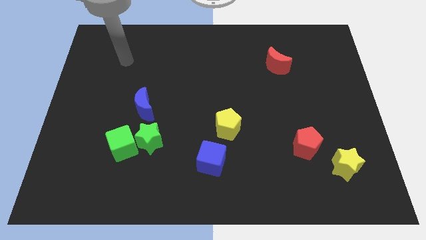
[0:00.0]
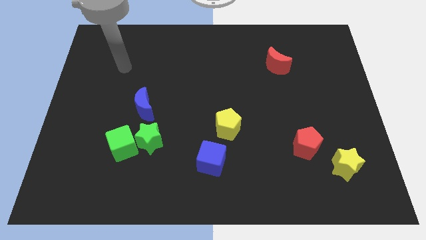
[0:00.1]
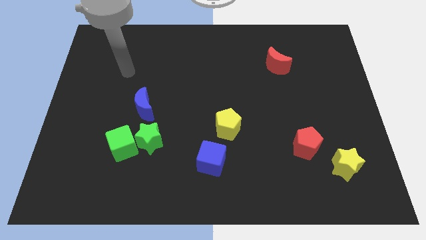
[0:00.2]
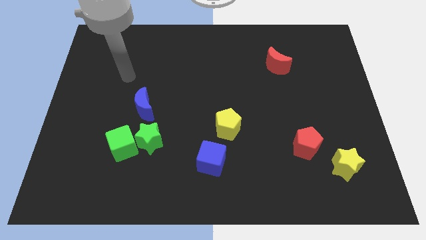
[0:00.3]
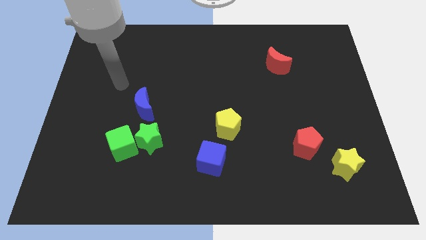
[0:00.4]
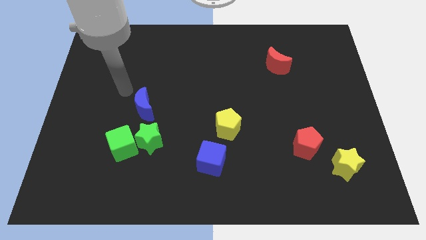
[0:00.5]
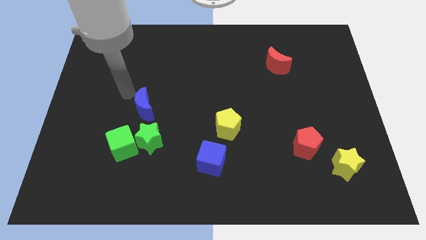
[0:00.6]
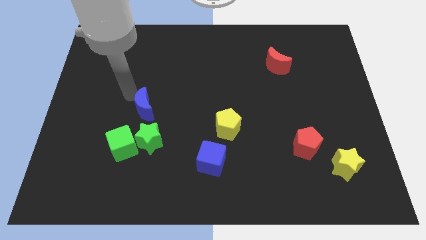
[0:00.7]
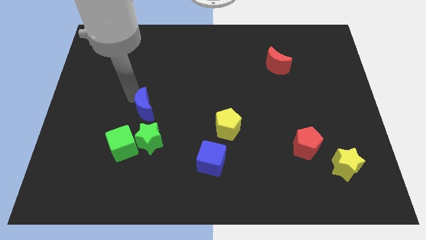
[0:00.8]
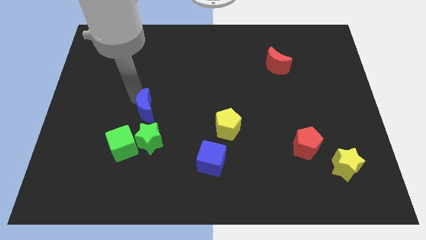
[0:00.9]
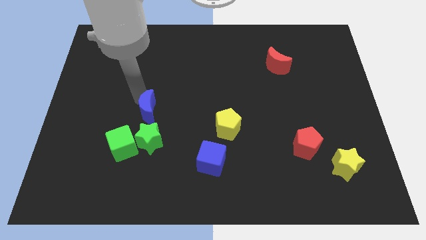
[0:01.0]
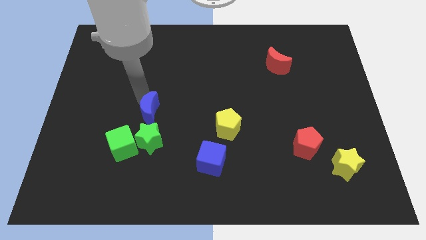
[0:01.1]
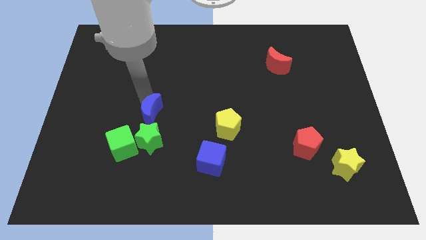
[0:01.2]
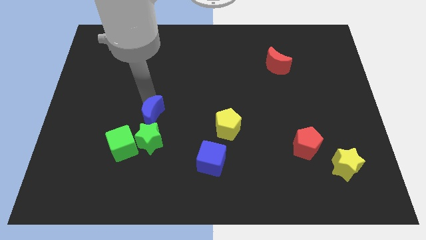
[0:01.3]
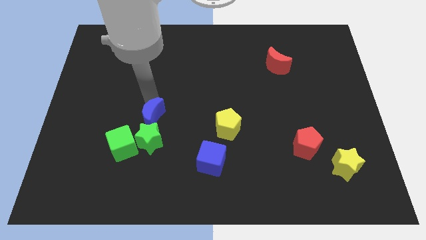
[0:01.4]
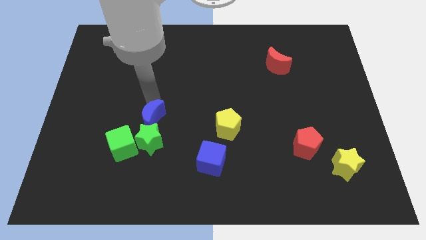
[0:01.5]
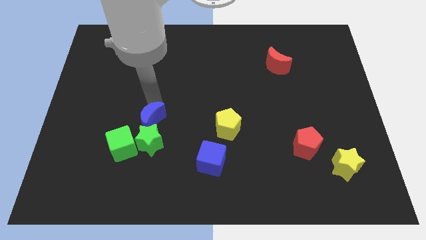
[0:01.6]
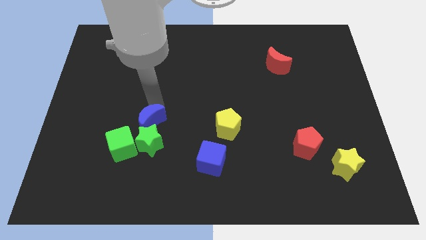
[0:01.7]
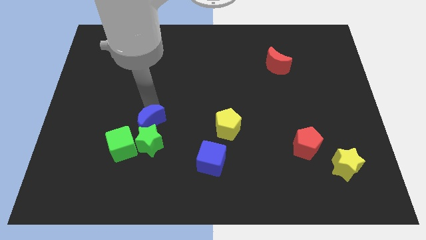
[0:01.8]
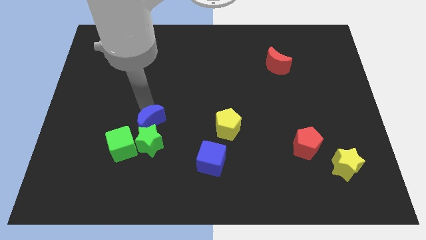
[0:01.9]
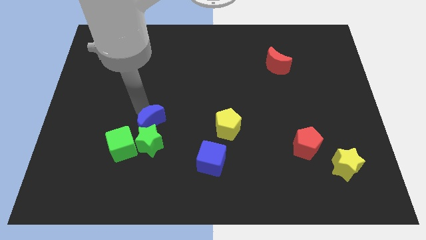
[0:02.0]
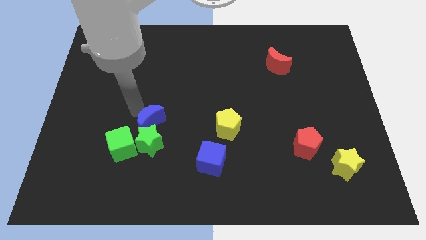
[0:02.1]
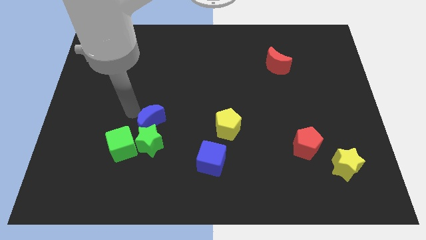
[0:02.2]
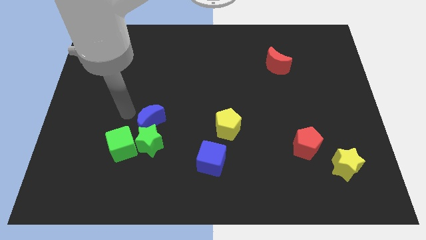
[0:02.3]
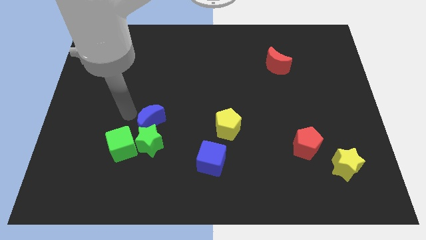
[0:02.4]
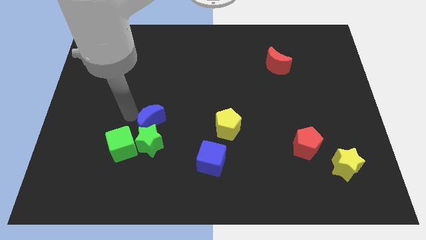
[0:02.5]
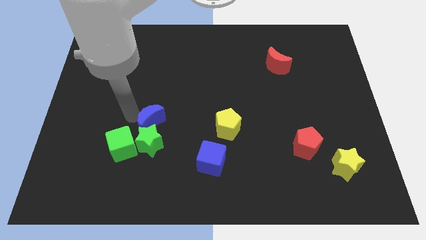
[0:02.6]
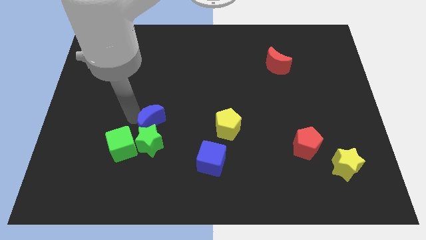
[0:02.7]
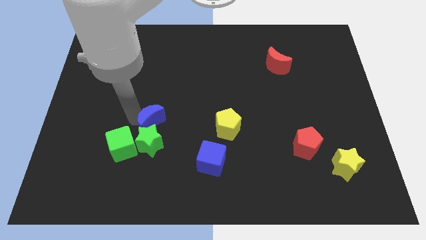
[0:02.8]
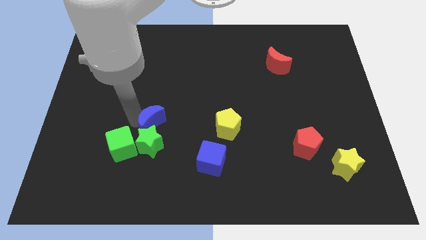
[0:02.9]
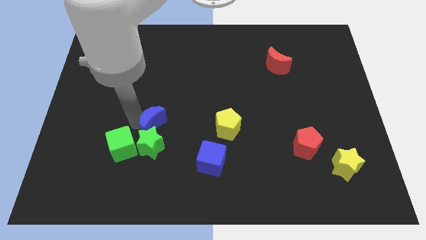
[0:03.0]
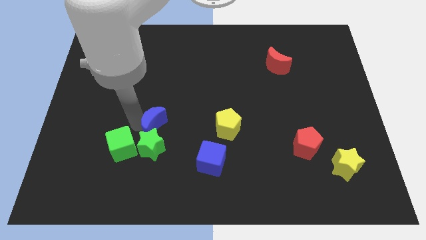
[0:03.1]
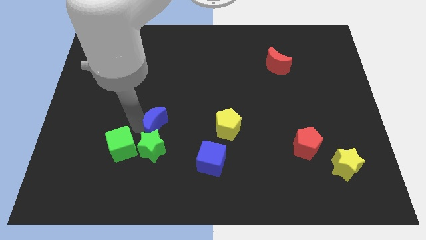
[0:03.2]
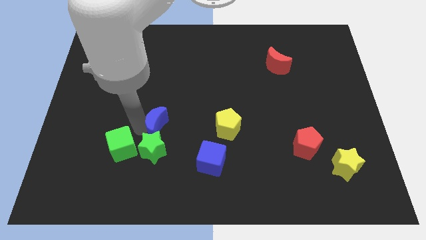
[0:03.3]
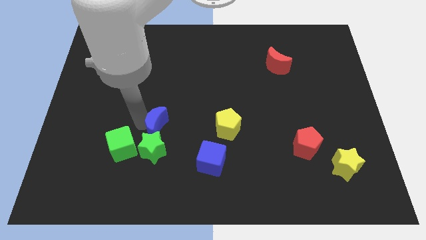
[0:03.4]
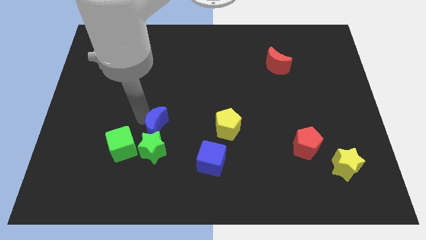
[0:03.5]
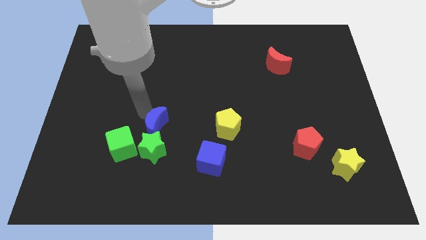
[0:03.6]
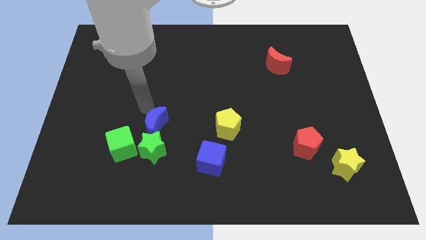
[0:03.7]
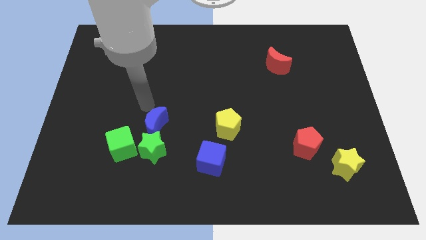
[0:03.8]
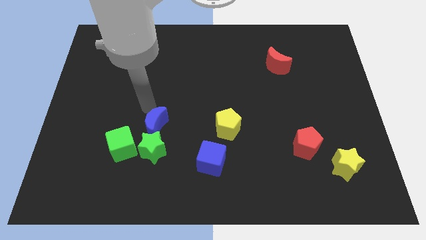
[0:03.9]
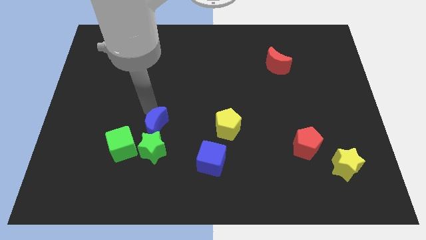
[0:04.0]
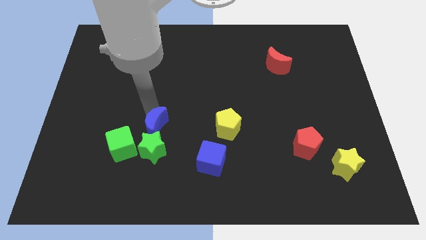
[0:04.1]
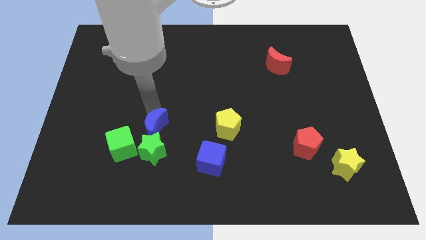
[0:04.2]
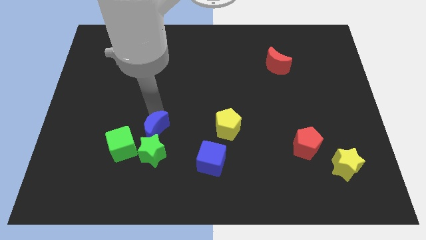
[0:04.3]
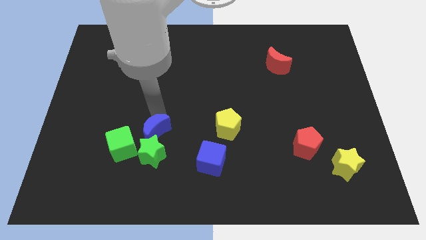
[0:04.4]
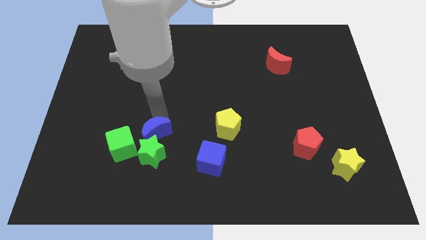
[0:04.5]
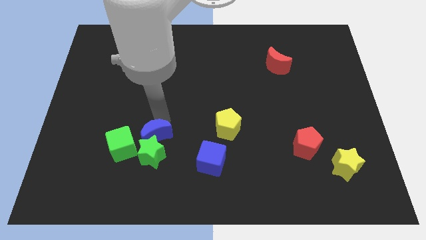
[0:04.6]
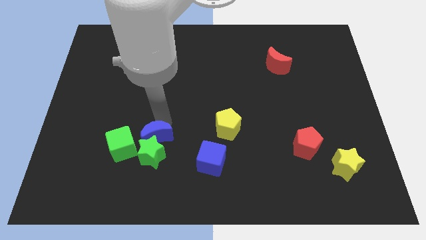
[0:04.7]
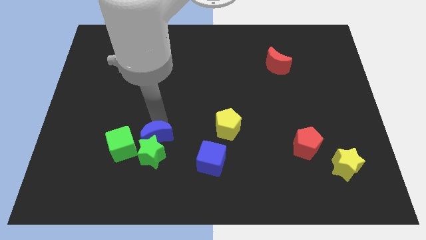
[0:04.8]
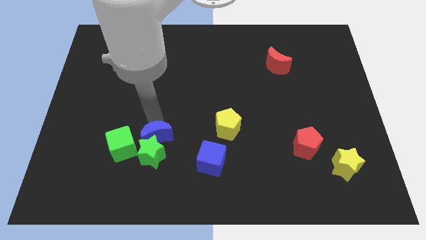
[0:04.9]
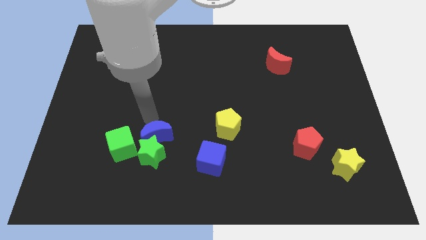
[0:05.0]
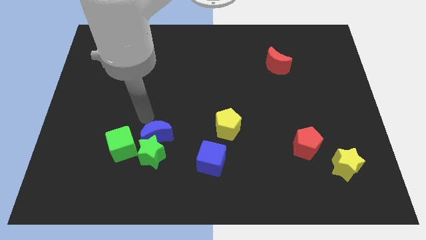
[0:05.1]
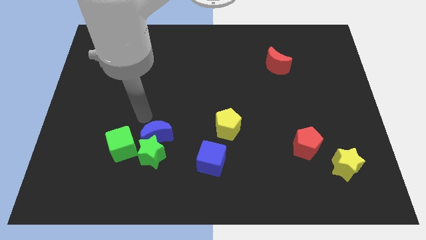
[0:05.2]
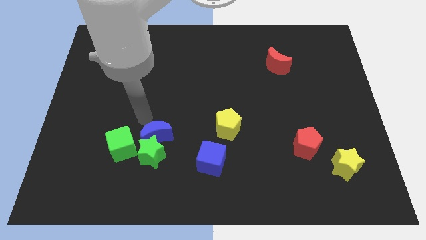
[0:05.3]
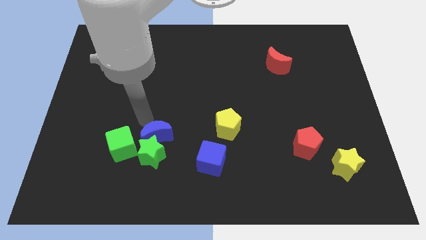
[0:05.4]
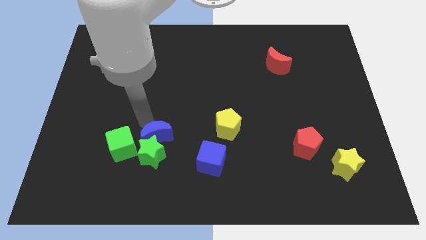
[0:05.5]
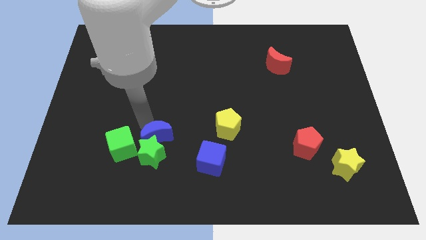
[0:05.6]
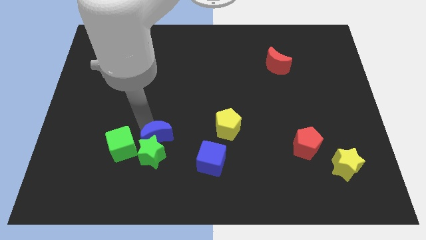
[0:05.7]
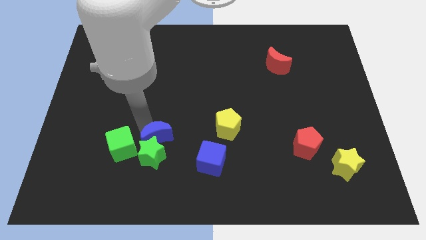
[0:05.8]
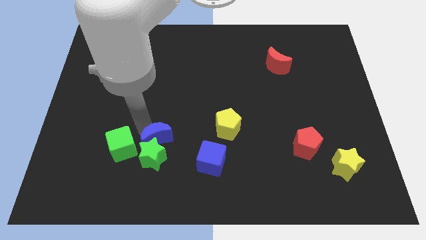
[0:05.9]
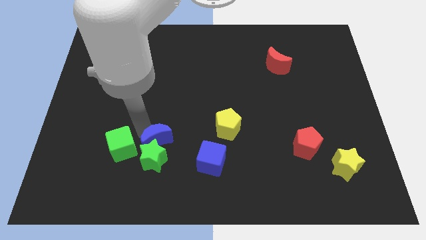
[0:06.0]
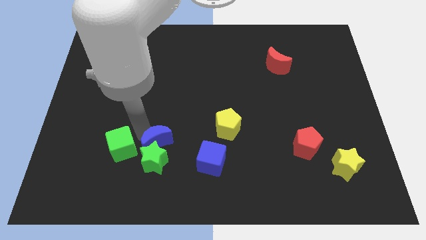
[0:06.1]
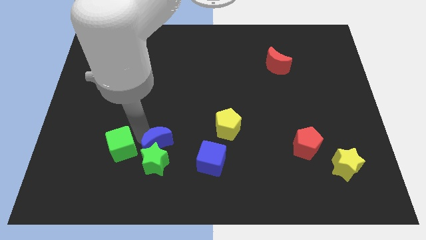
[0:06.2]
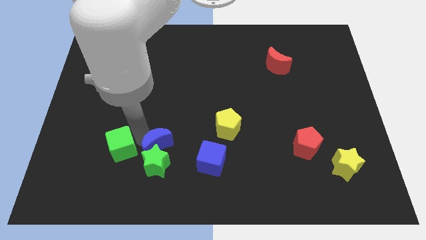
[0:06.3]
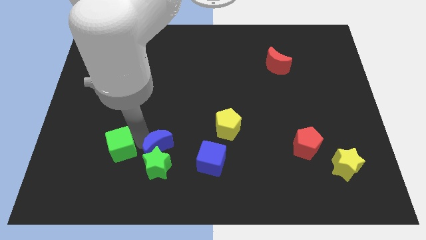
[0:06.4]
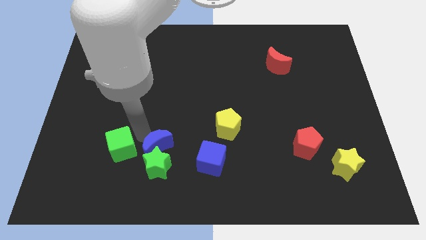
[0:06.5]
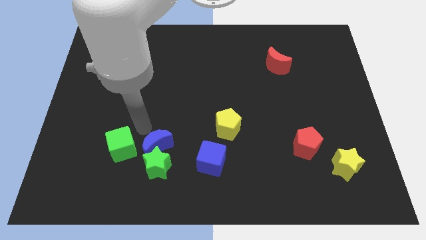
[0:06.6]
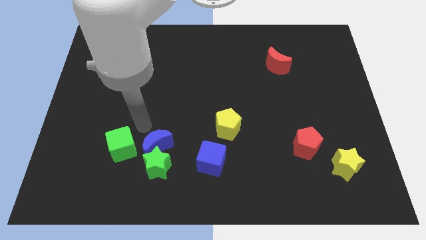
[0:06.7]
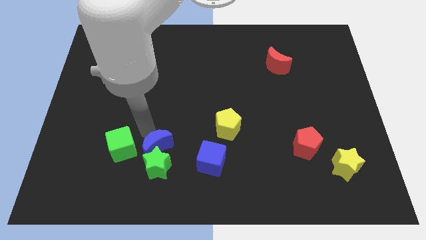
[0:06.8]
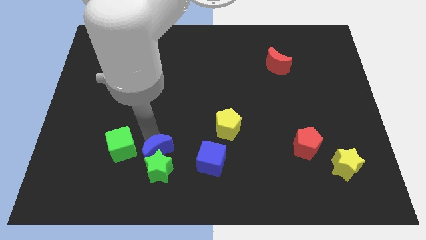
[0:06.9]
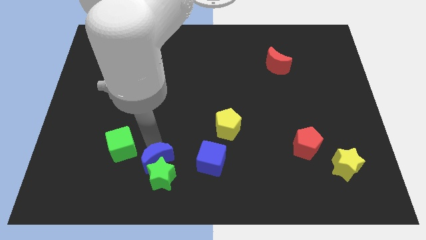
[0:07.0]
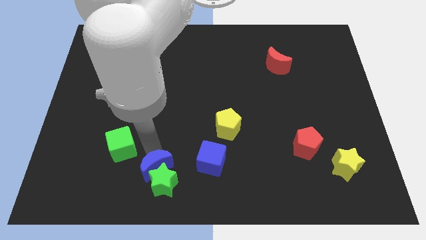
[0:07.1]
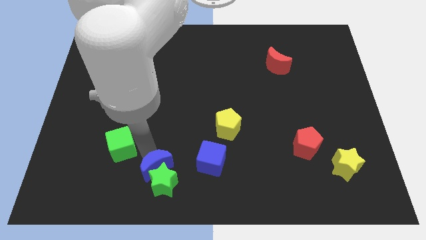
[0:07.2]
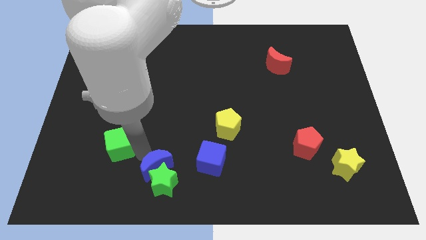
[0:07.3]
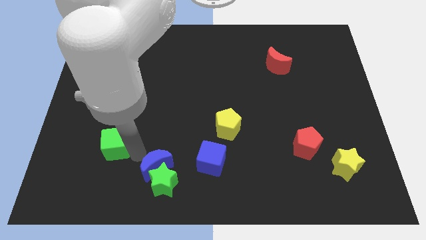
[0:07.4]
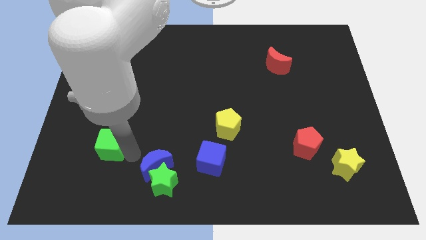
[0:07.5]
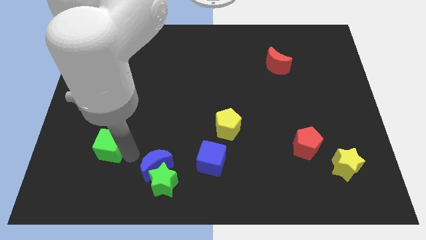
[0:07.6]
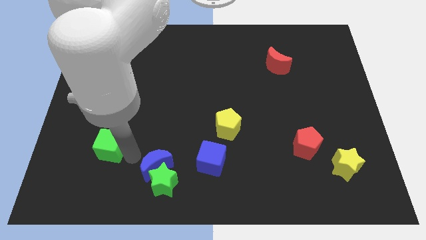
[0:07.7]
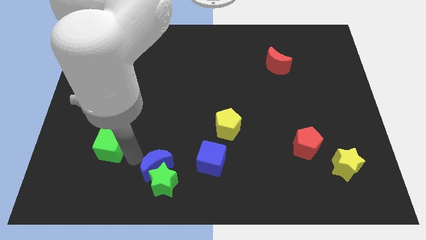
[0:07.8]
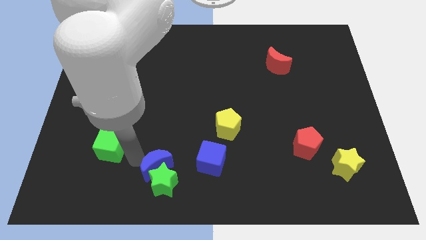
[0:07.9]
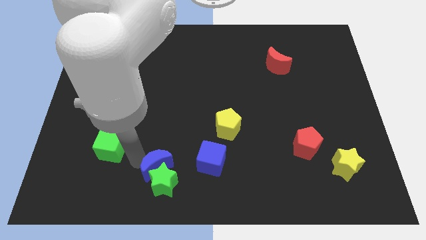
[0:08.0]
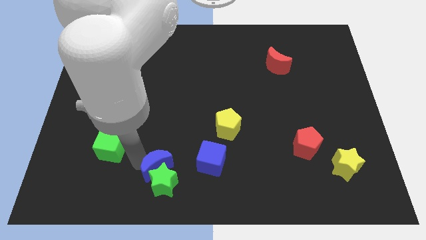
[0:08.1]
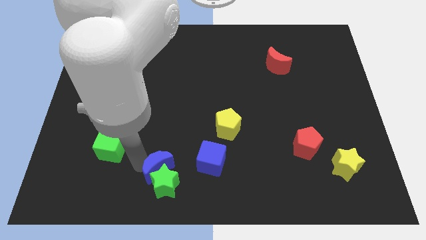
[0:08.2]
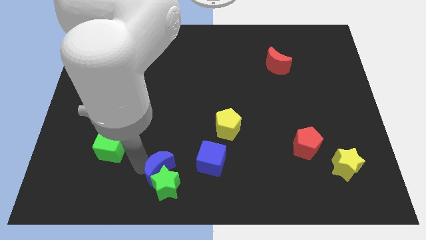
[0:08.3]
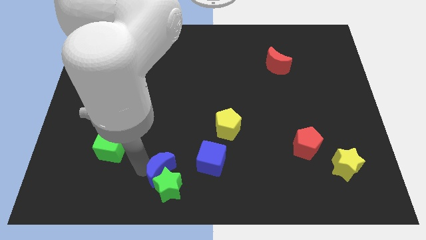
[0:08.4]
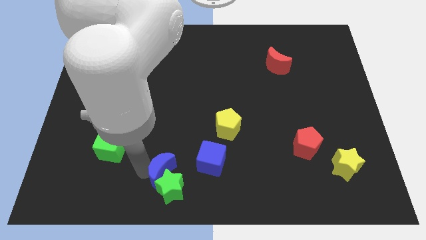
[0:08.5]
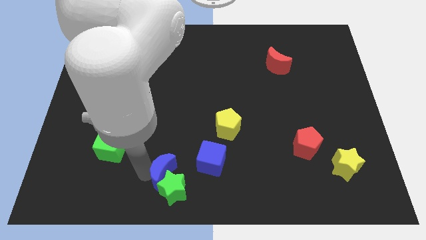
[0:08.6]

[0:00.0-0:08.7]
slide the blue moon to the bottom
